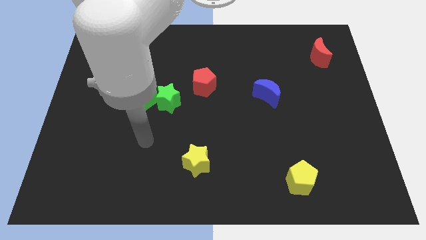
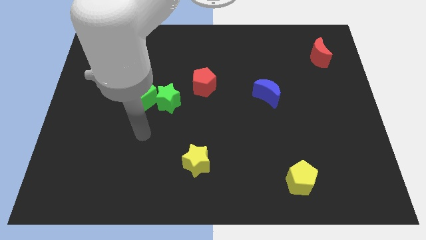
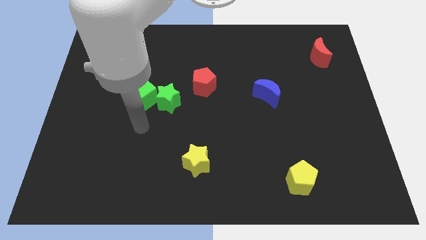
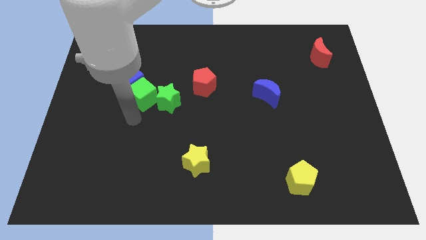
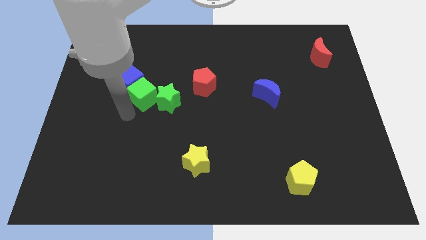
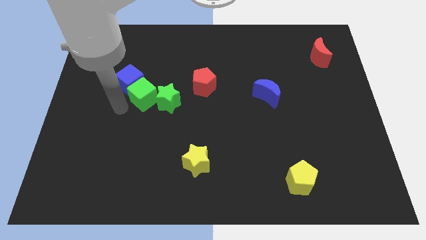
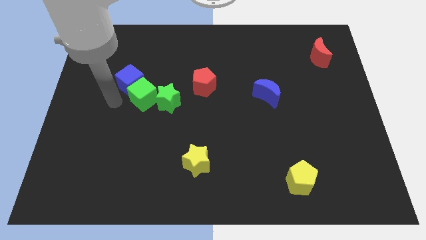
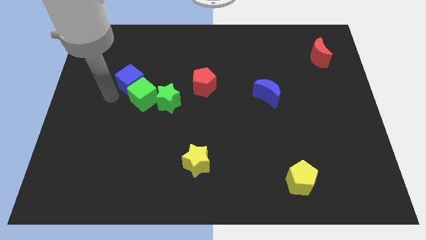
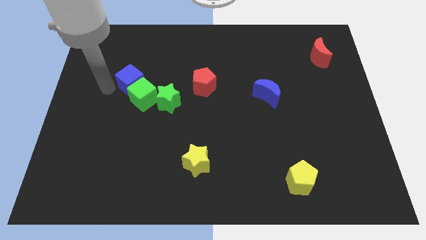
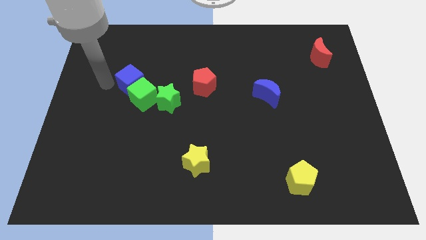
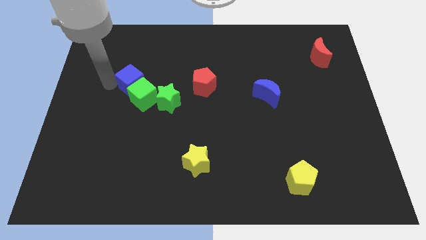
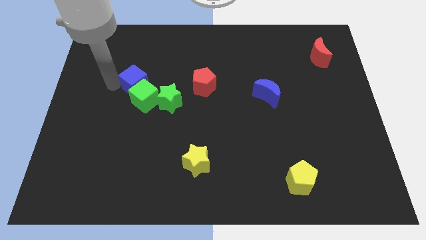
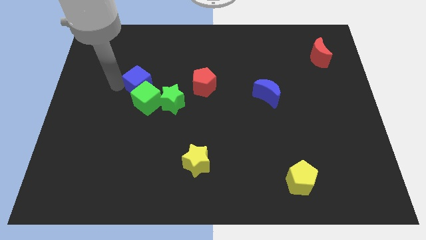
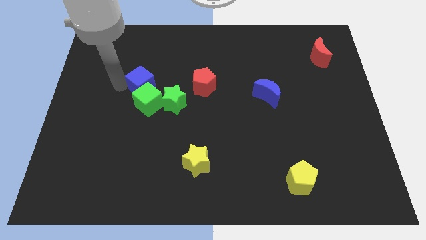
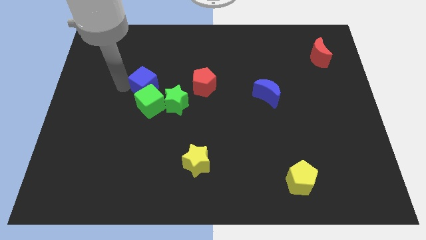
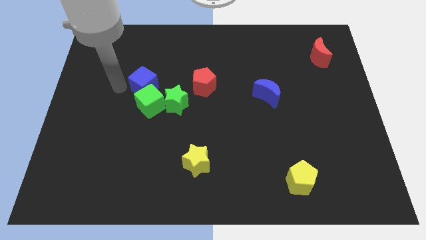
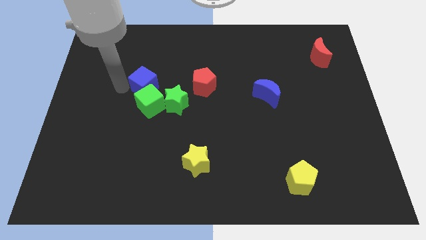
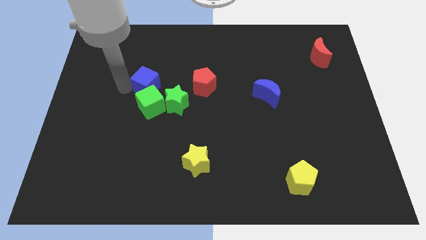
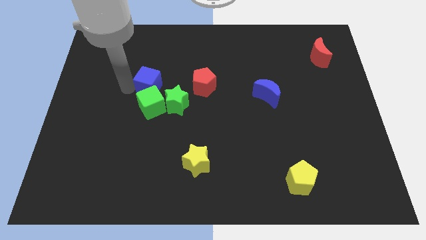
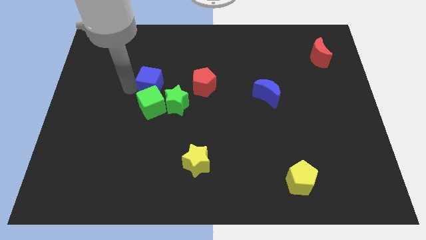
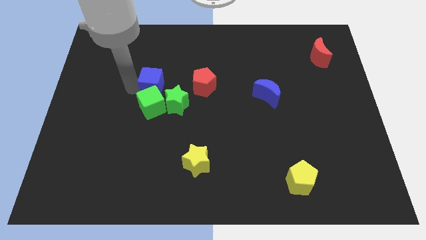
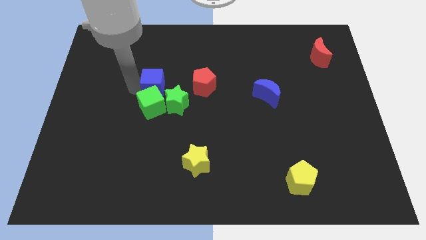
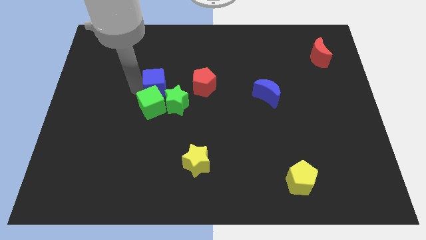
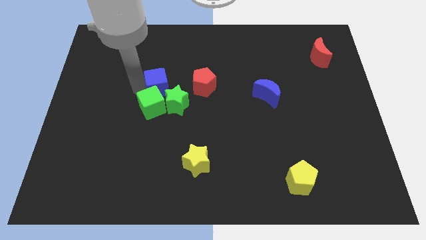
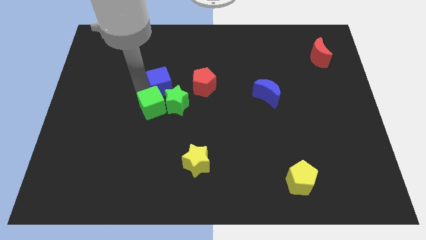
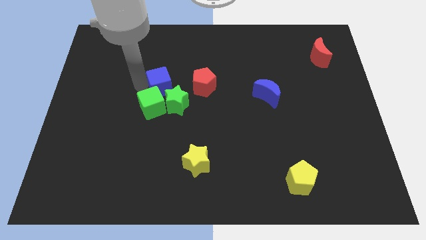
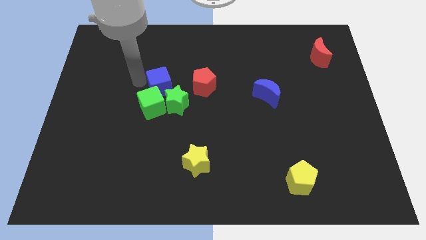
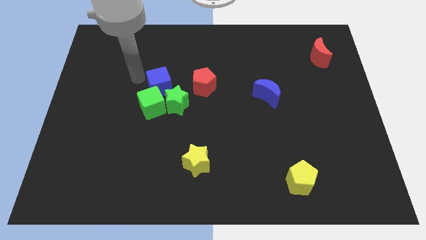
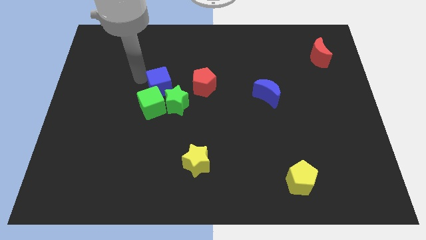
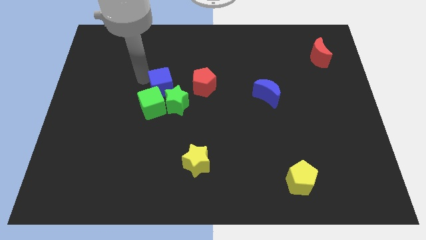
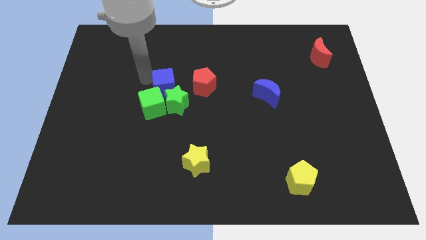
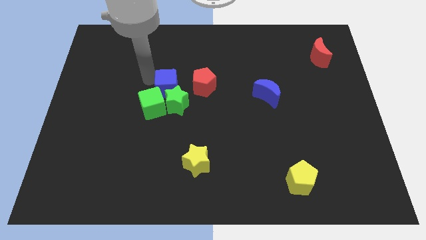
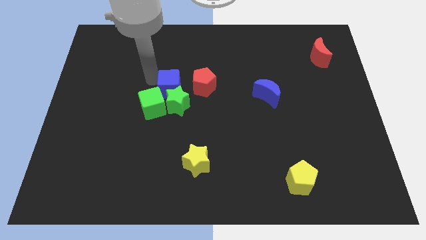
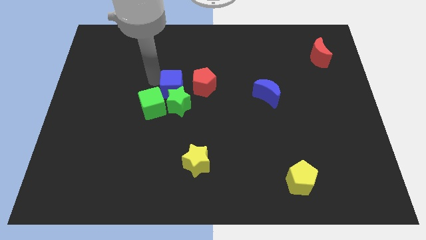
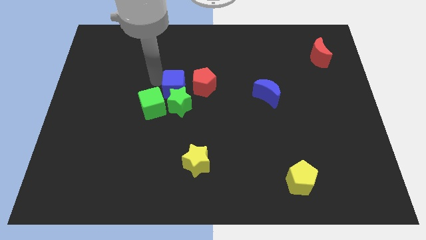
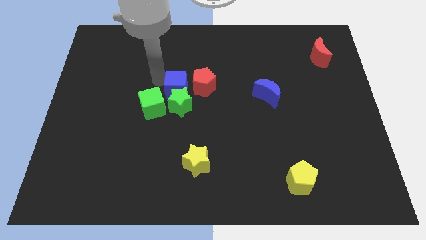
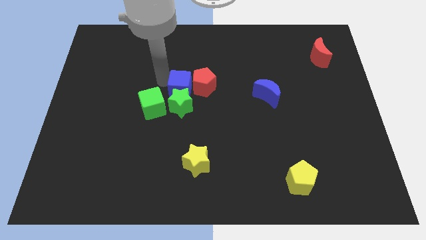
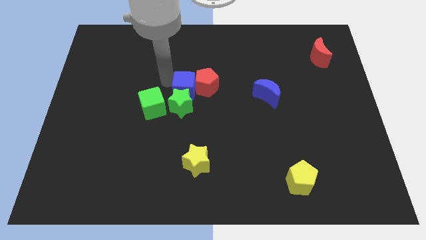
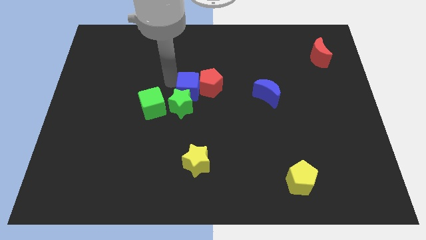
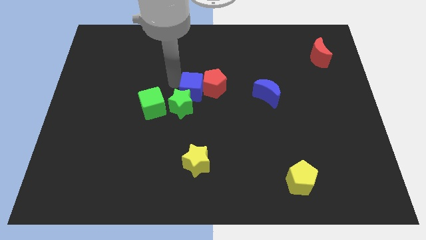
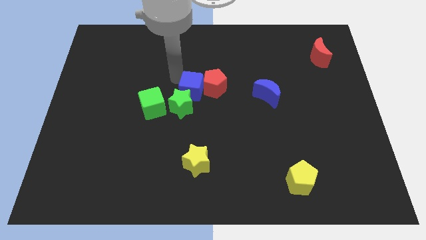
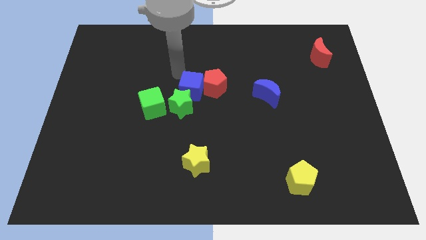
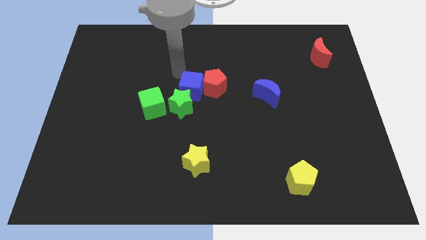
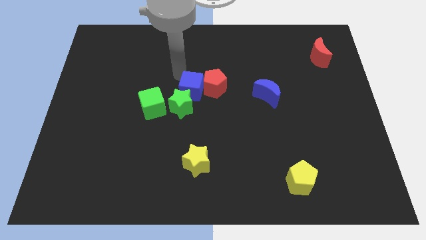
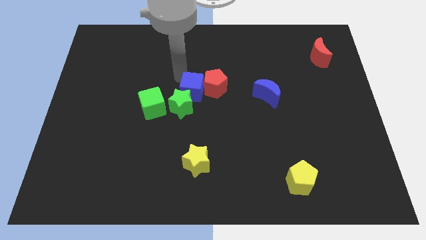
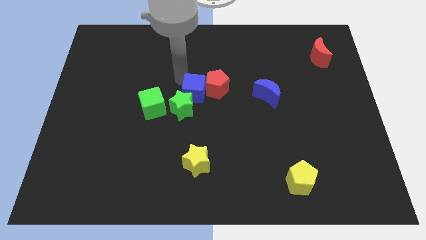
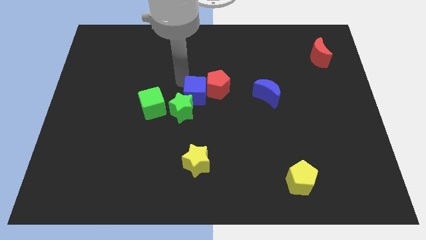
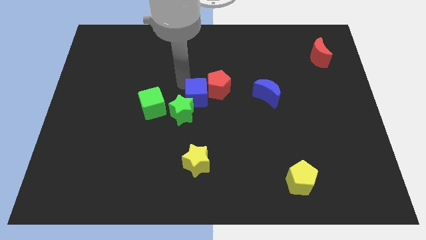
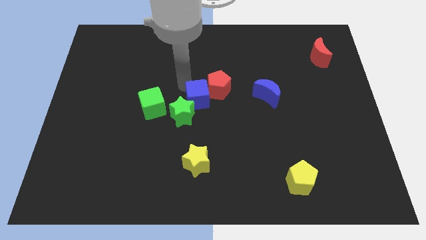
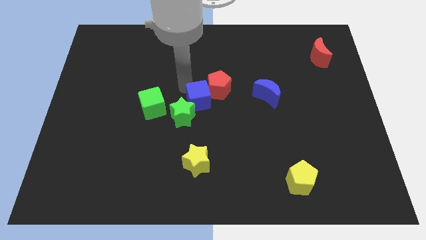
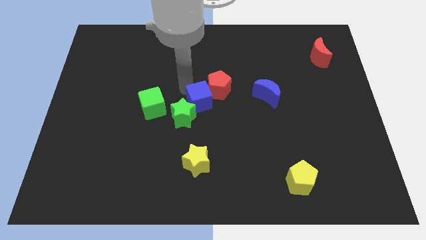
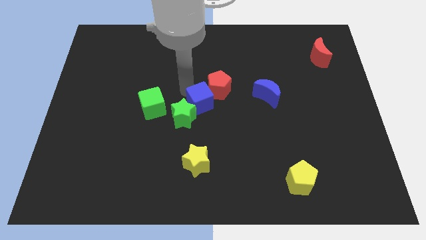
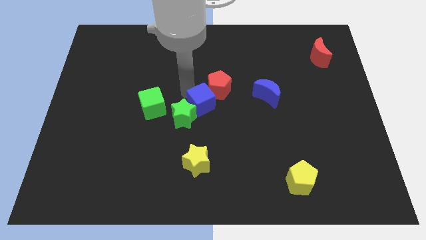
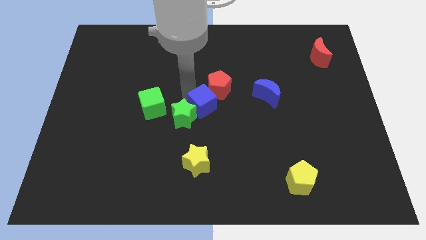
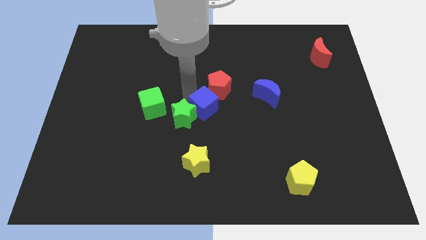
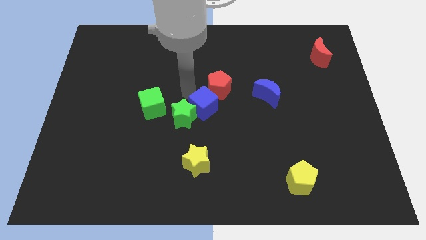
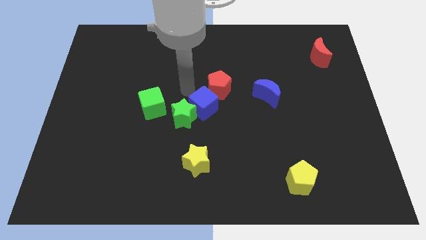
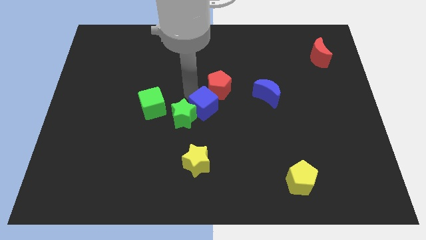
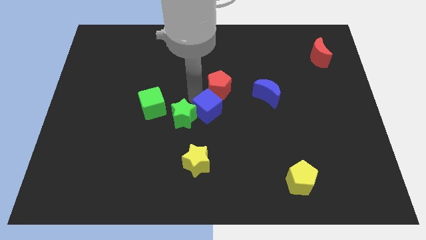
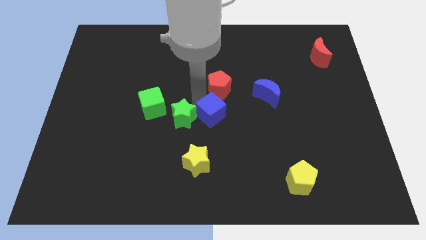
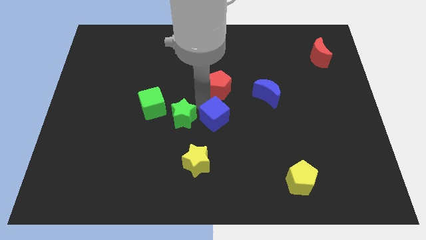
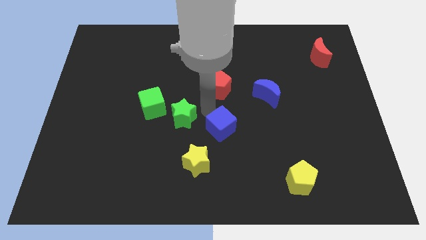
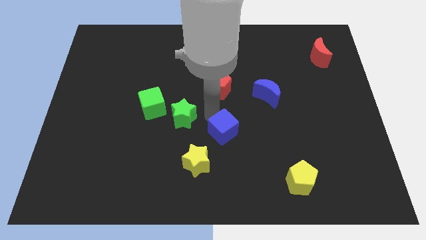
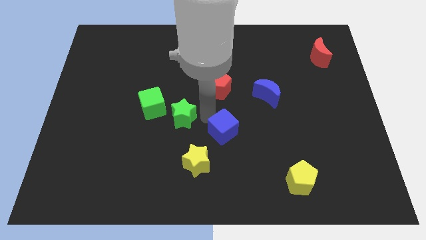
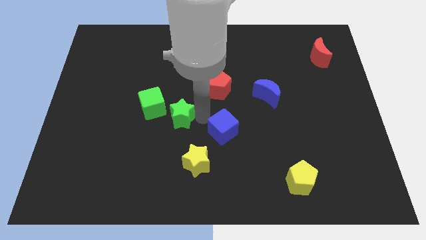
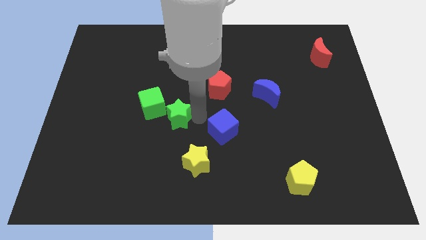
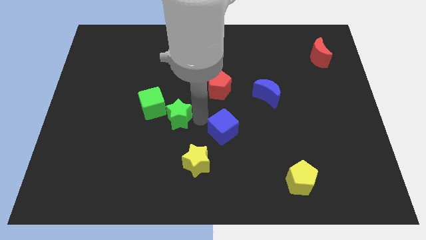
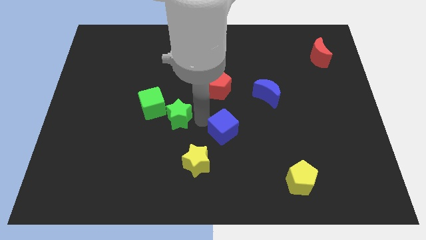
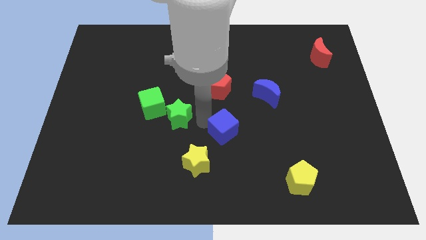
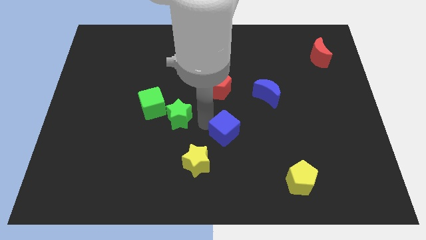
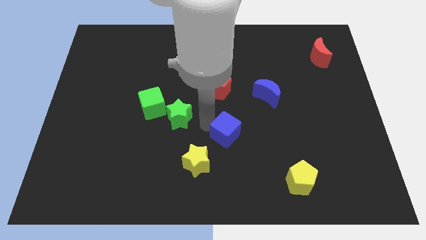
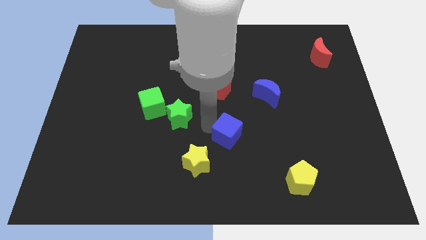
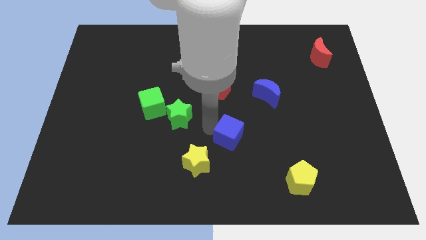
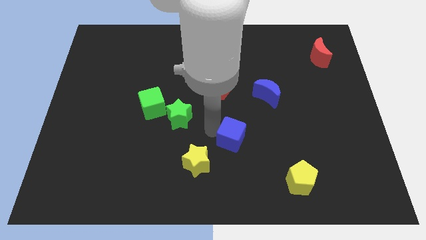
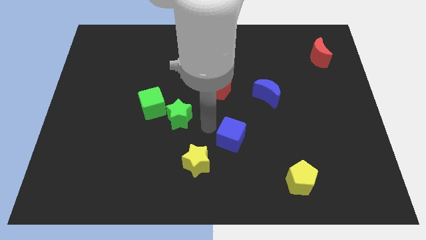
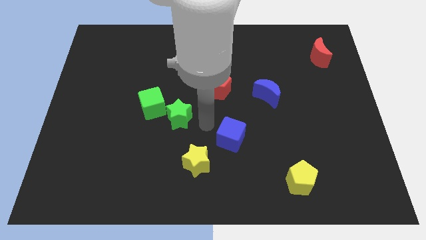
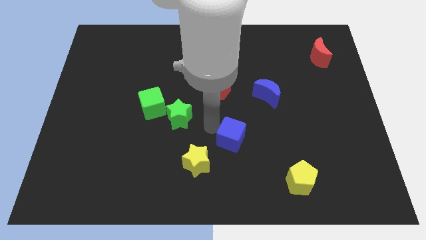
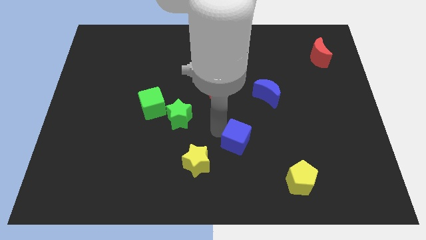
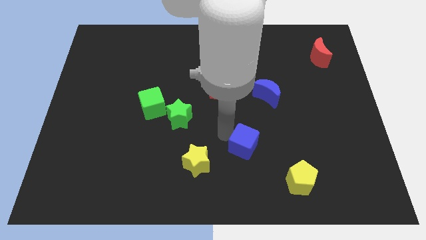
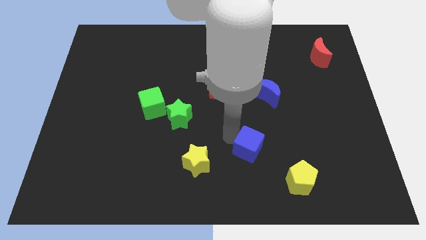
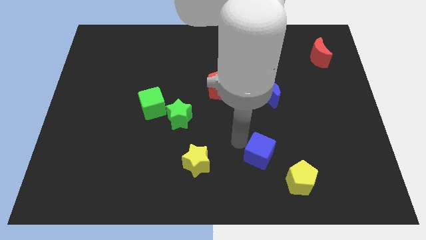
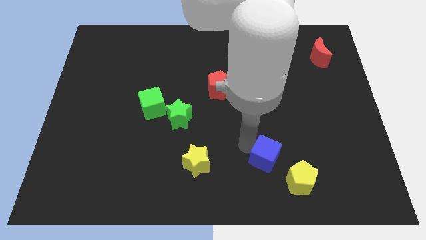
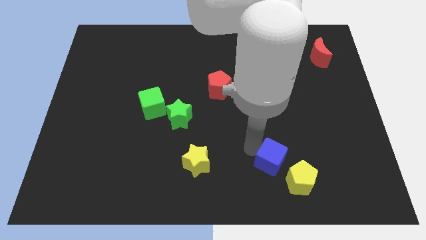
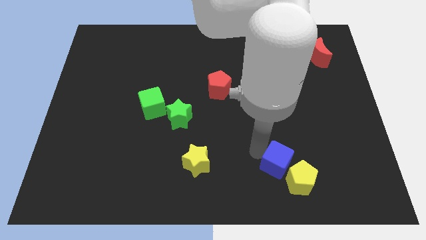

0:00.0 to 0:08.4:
move the blue cube next to the yellow pentagon
